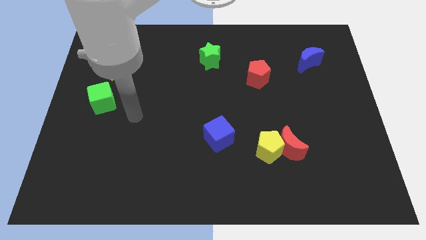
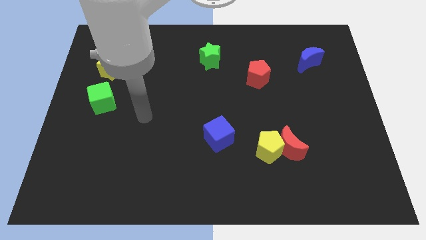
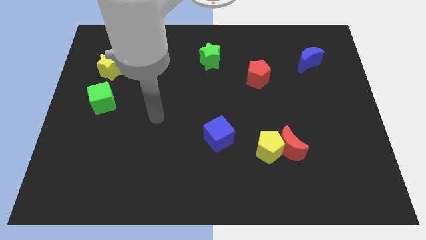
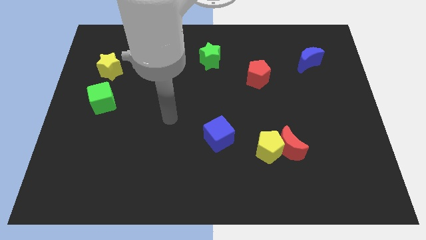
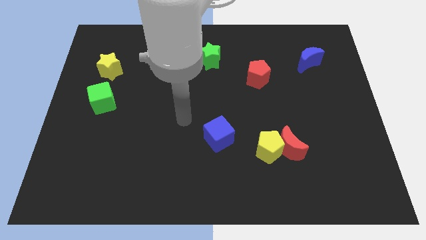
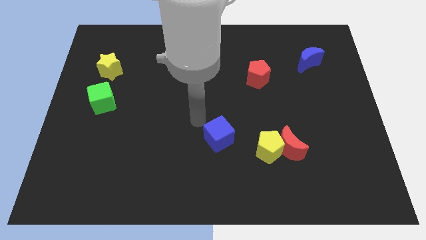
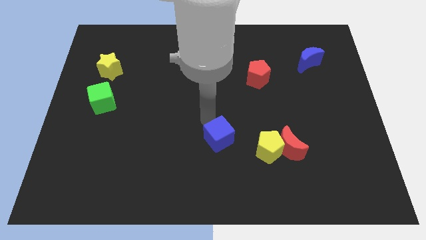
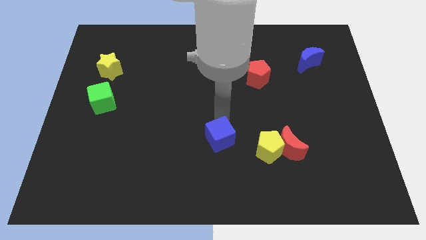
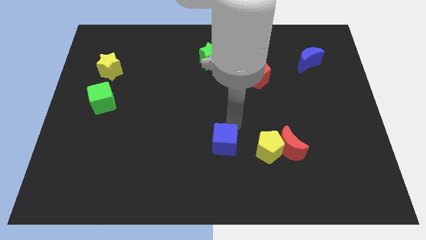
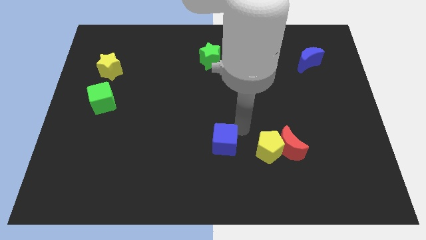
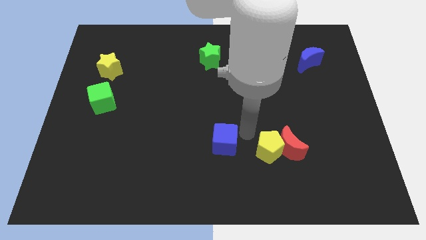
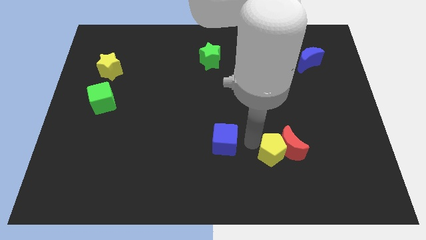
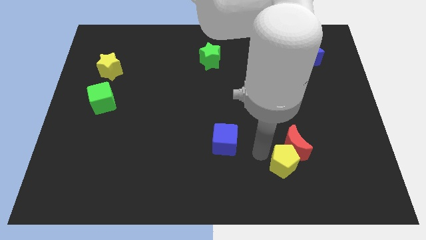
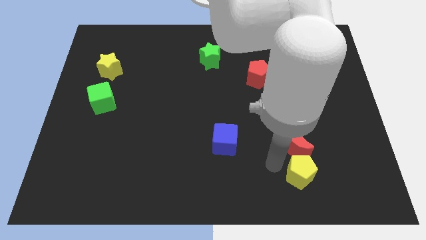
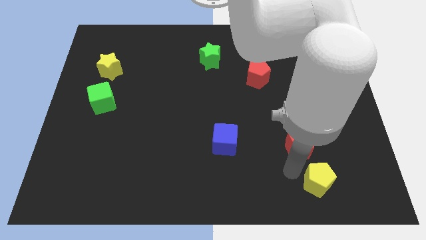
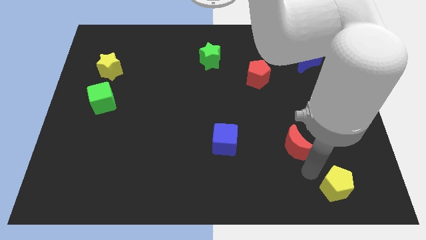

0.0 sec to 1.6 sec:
pull the red moon apart from the yellow pentagon

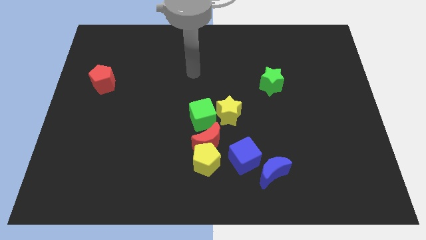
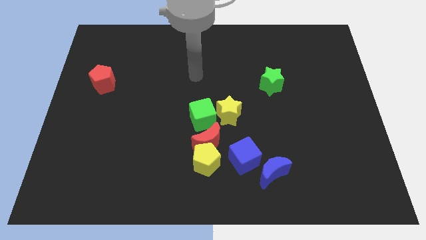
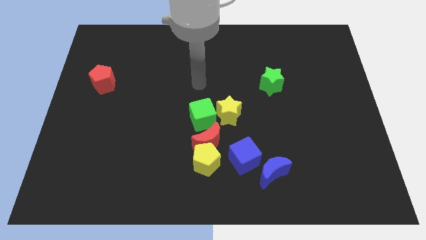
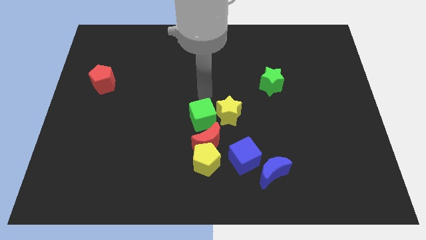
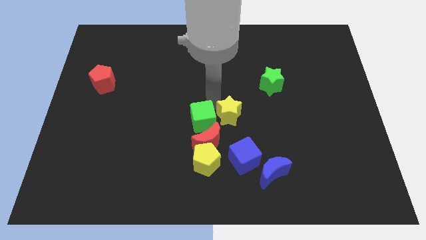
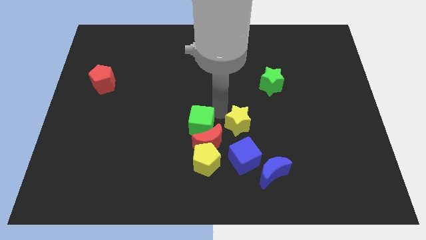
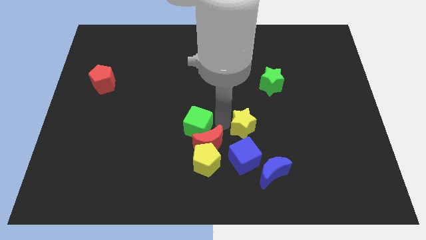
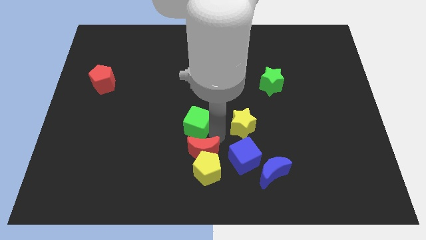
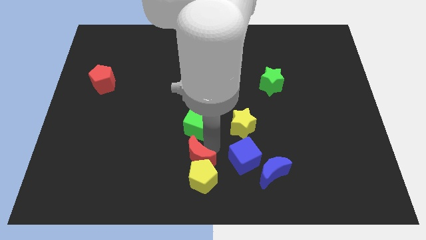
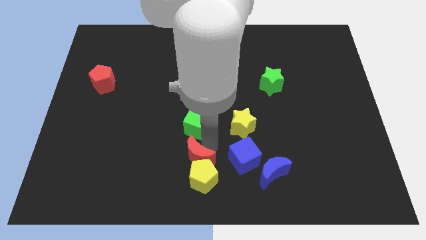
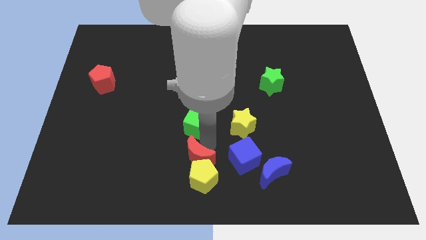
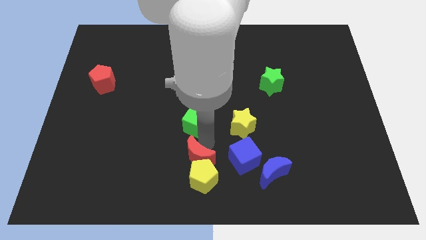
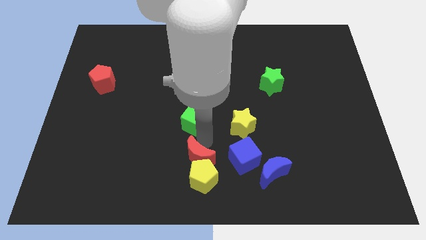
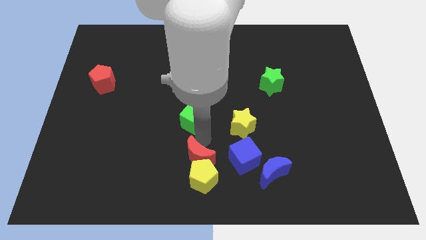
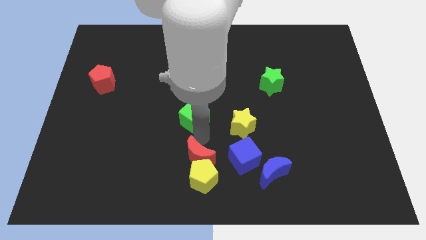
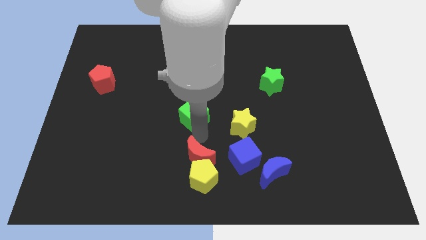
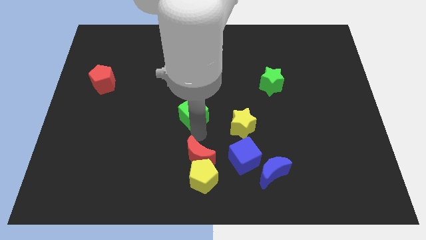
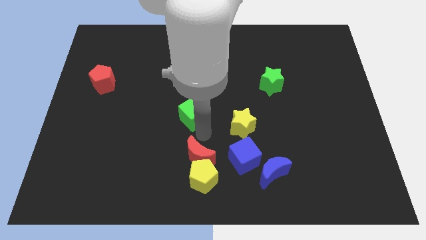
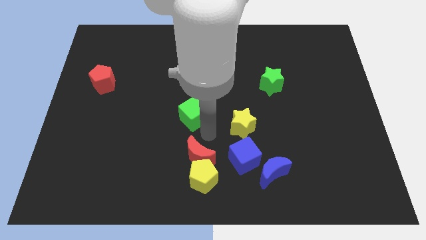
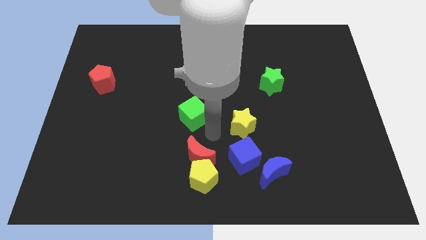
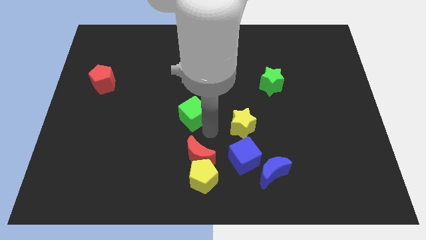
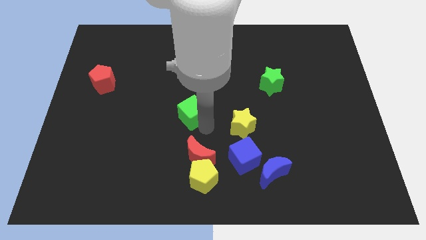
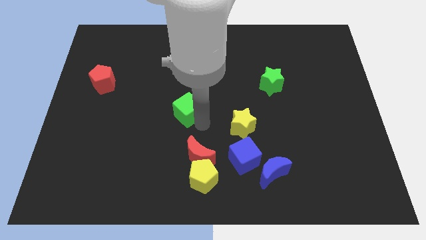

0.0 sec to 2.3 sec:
move the green cube away from the yellow star and red moon

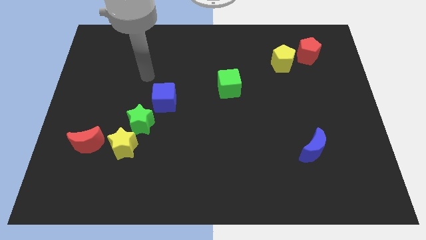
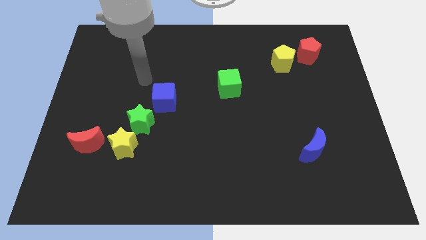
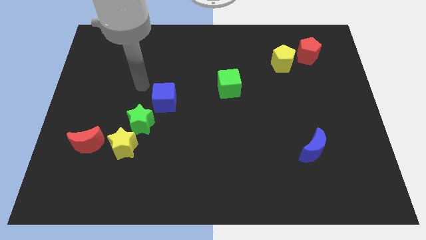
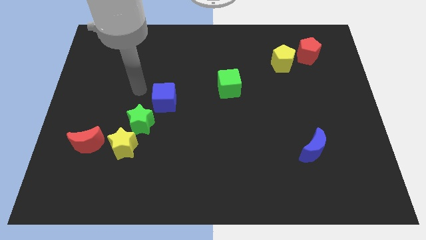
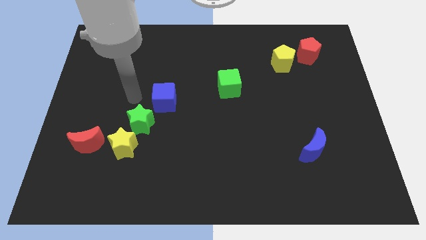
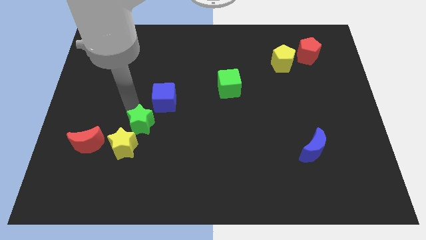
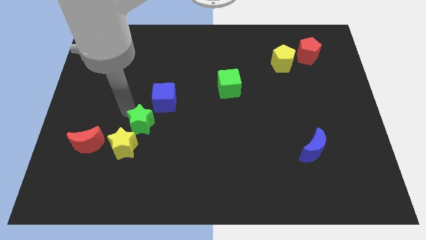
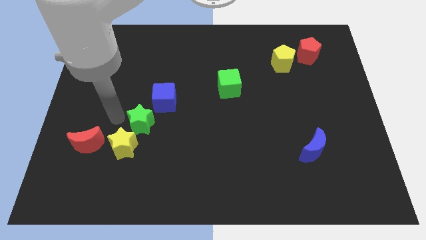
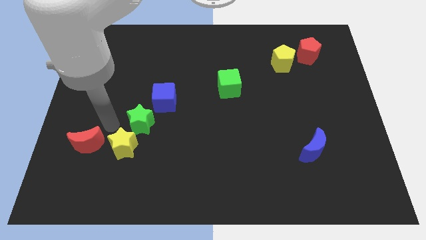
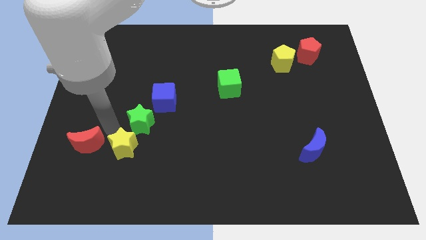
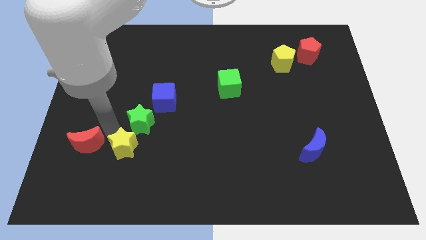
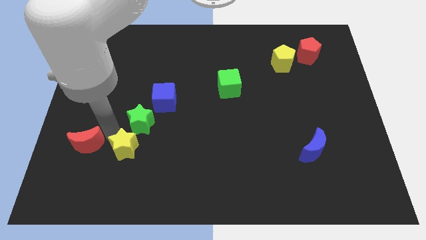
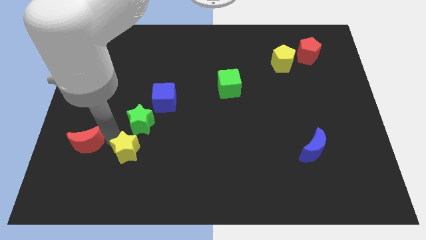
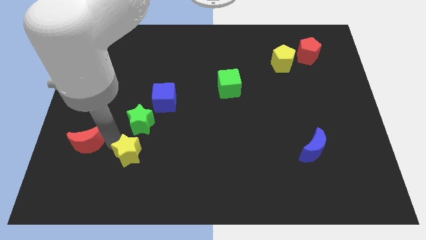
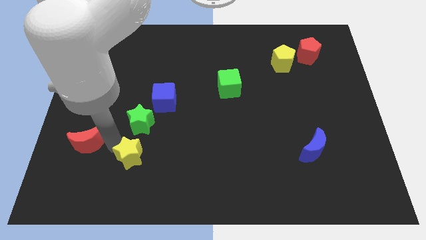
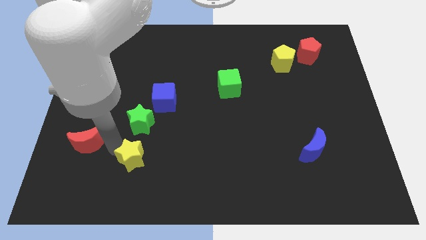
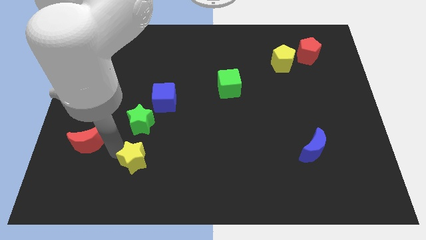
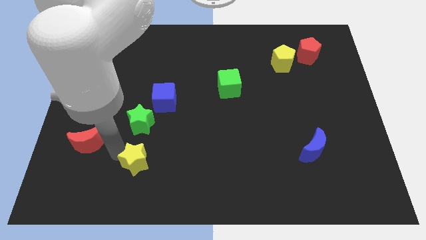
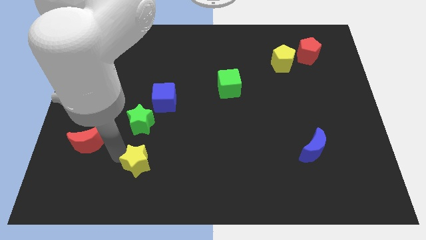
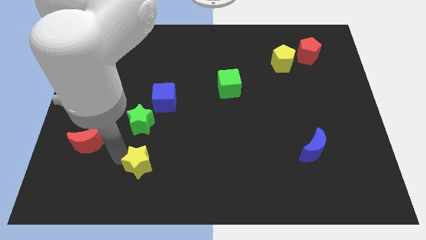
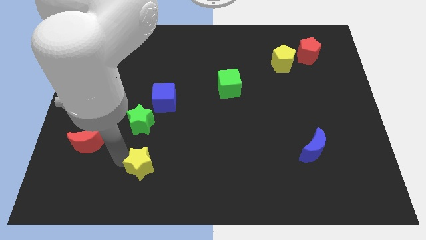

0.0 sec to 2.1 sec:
separate the yellow star from the green star and red moon

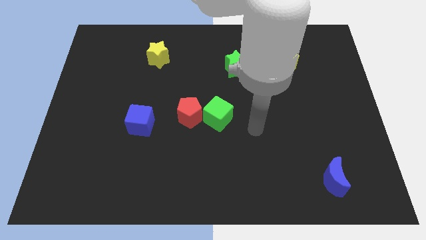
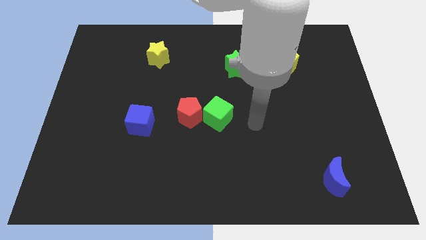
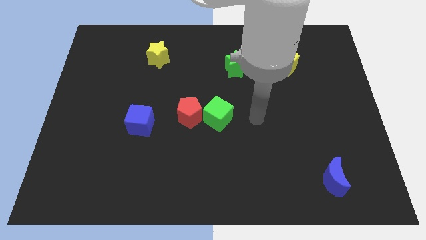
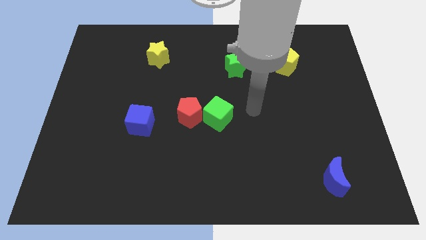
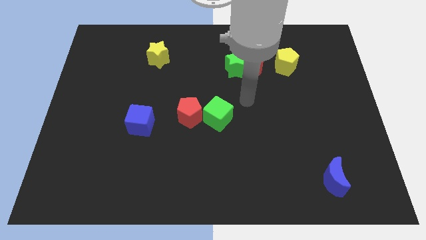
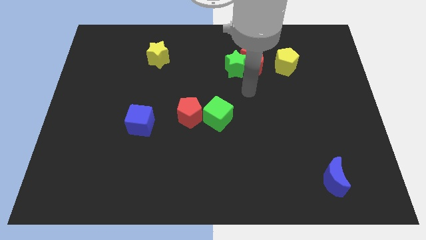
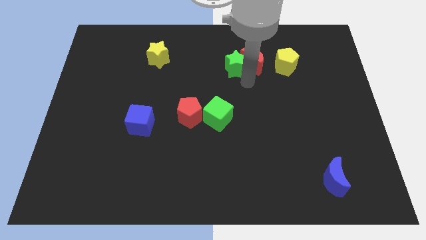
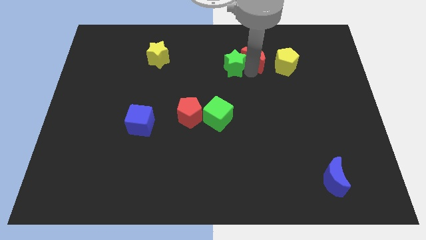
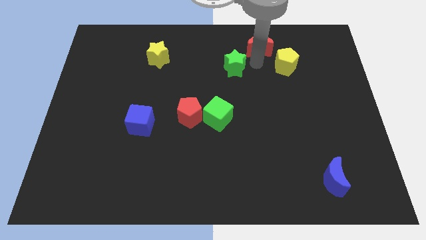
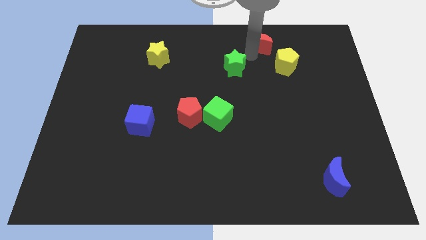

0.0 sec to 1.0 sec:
separate the green star from the red moon

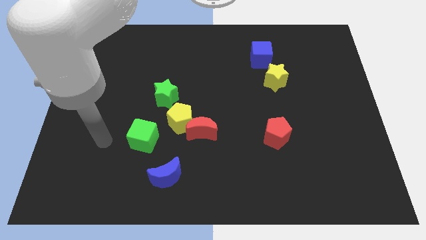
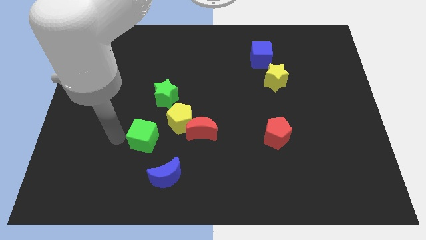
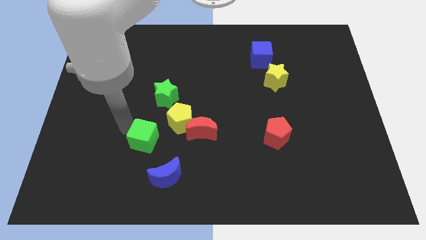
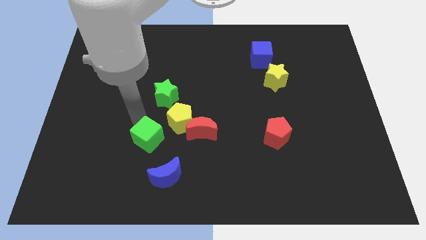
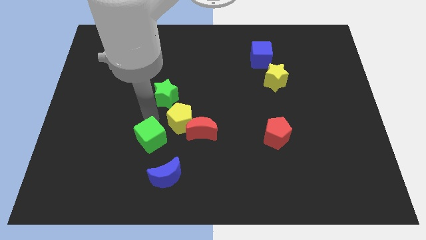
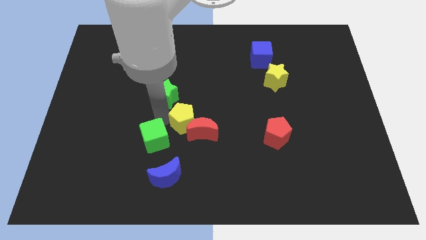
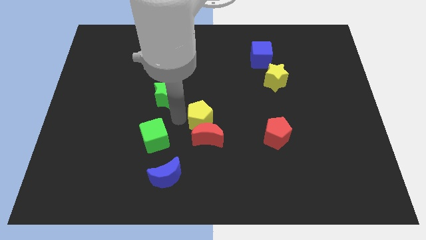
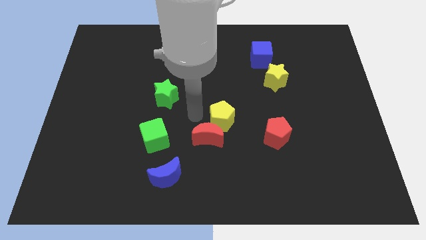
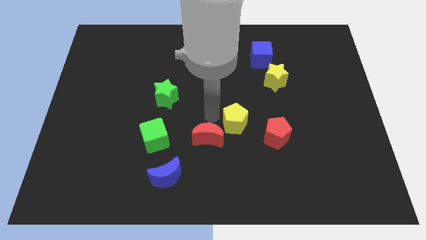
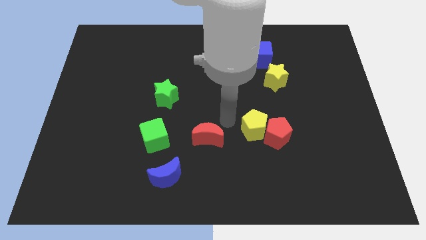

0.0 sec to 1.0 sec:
move the red moon away from the yellow pentagon

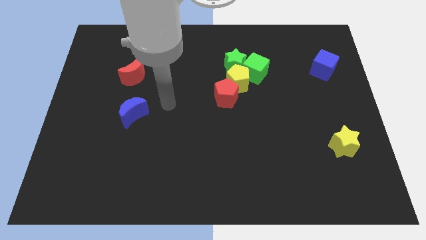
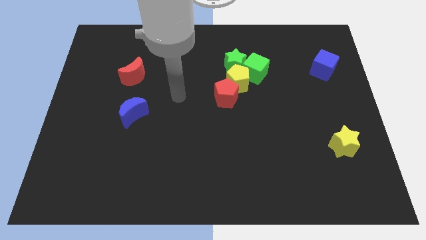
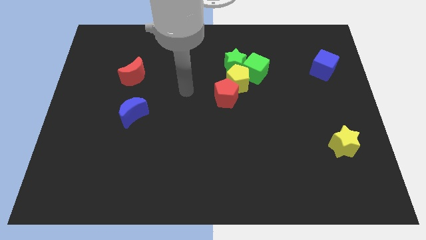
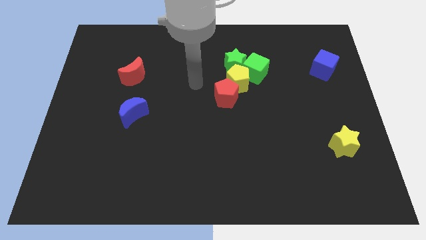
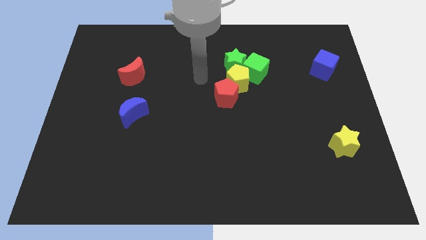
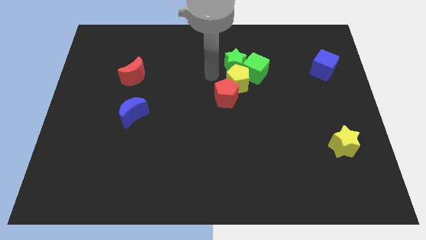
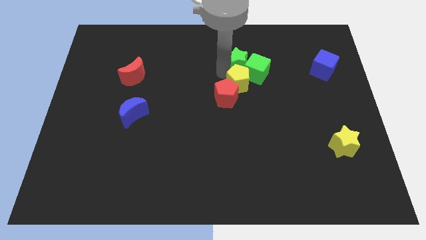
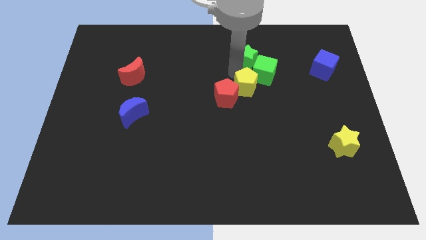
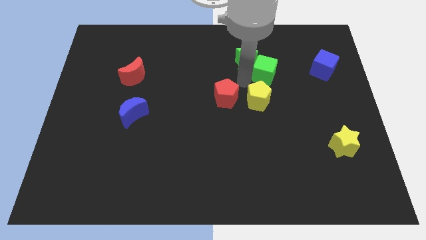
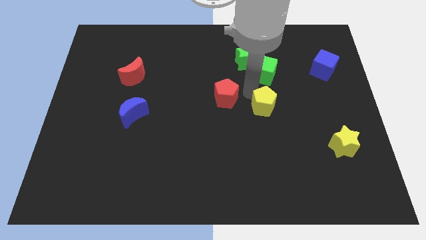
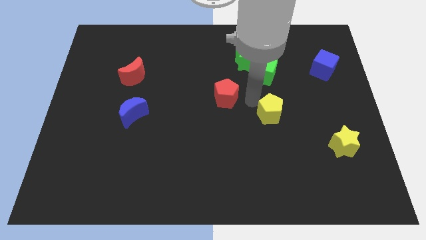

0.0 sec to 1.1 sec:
separate the red pentagon from the yellow pentagon
